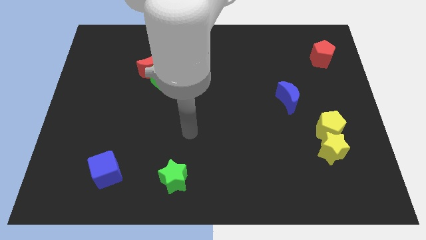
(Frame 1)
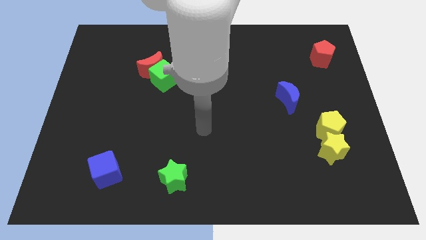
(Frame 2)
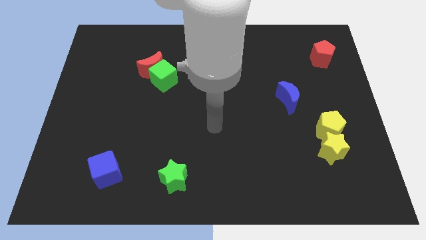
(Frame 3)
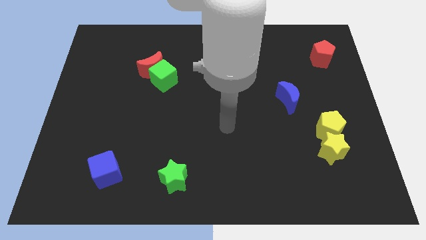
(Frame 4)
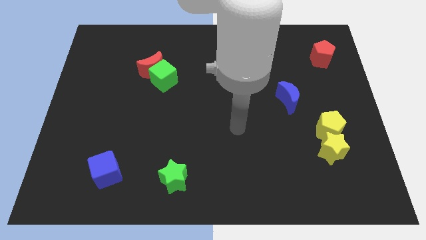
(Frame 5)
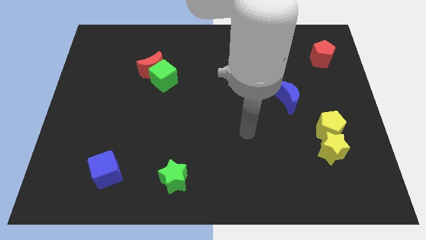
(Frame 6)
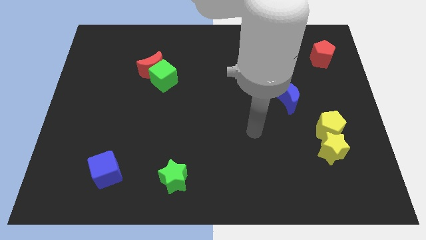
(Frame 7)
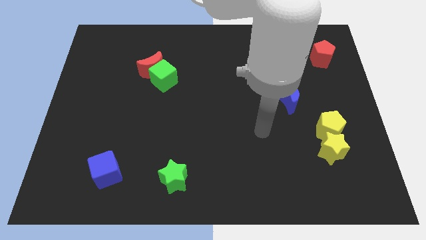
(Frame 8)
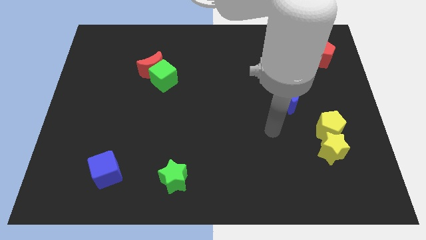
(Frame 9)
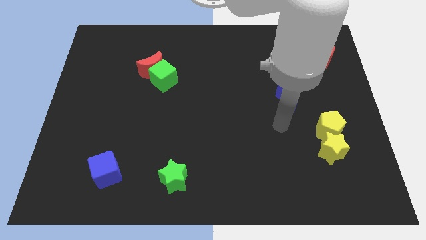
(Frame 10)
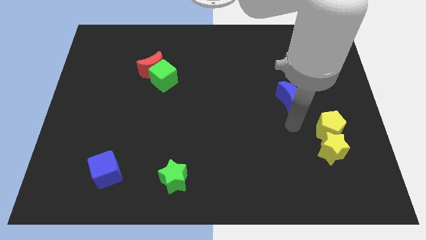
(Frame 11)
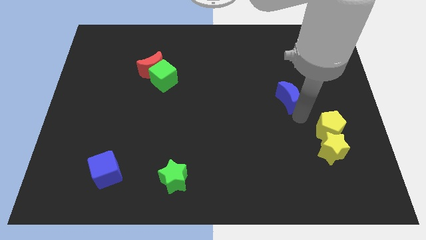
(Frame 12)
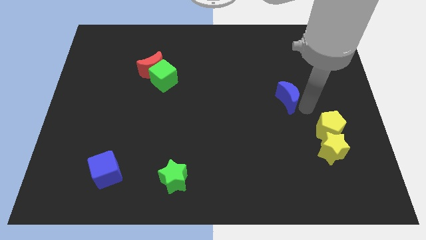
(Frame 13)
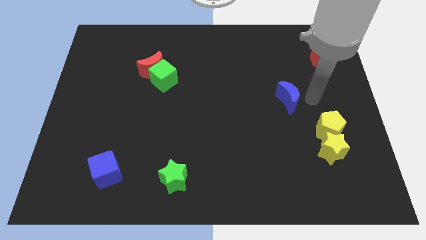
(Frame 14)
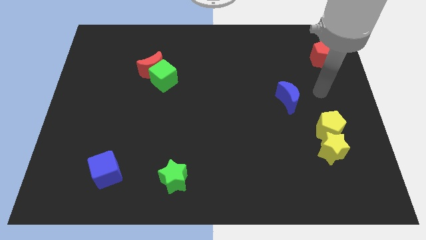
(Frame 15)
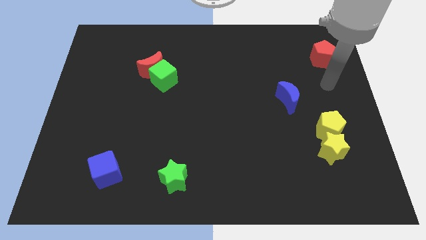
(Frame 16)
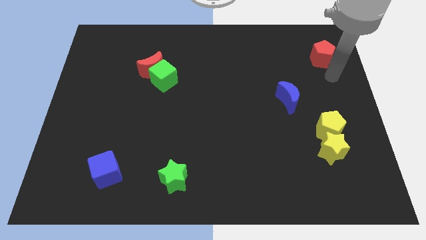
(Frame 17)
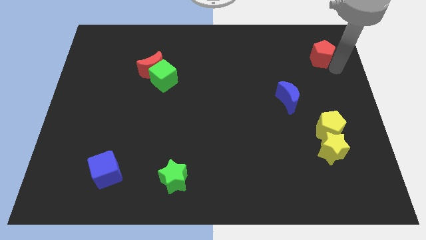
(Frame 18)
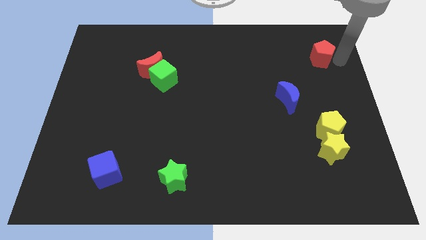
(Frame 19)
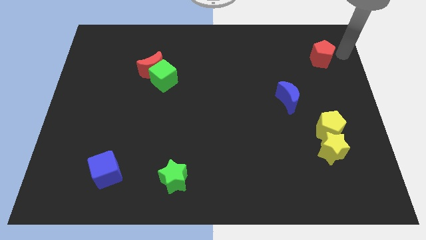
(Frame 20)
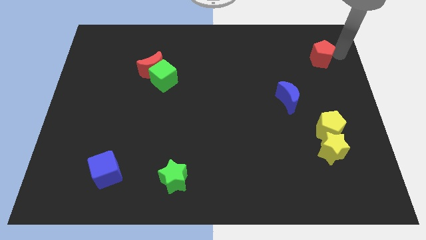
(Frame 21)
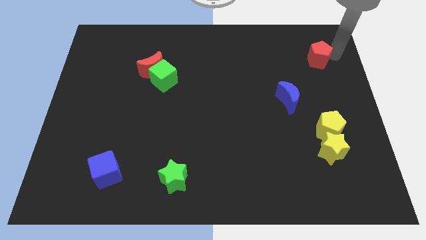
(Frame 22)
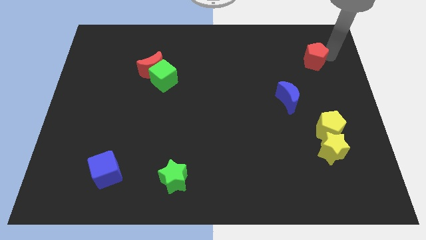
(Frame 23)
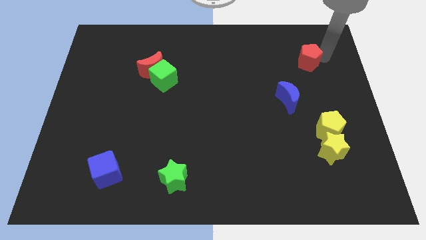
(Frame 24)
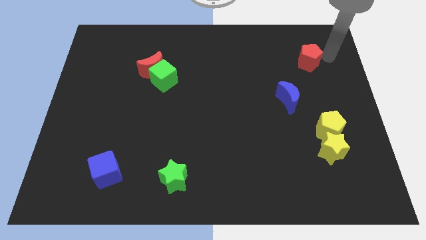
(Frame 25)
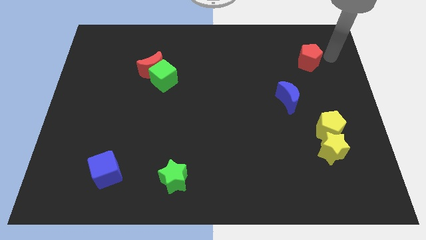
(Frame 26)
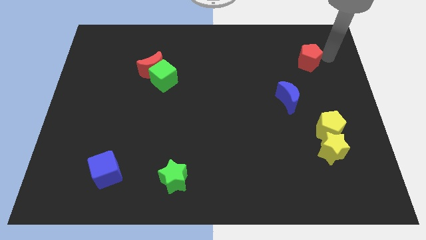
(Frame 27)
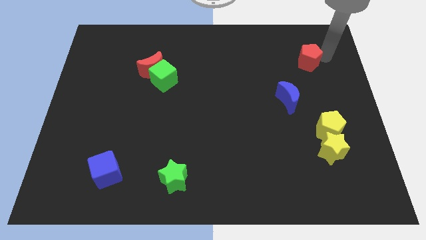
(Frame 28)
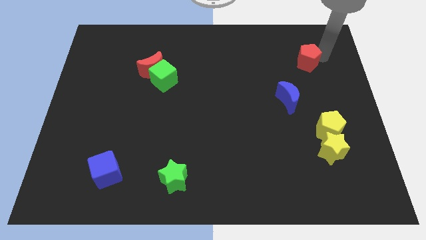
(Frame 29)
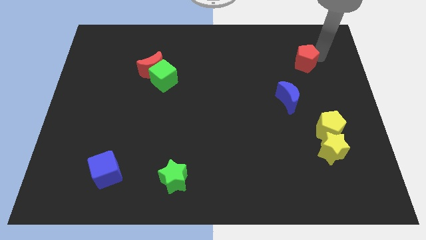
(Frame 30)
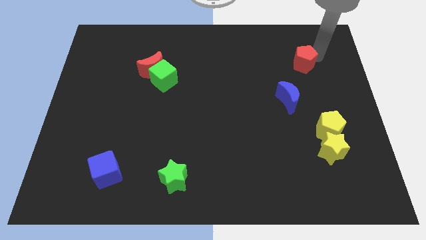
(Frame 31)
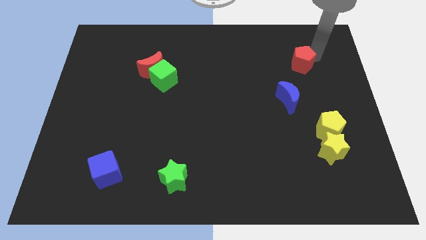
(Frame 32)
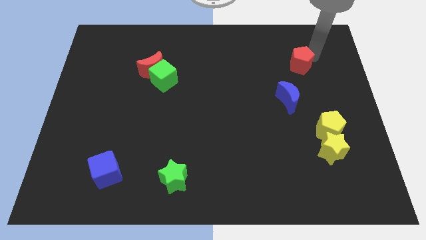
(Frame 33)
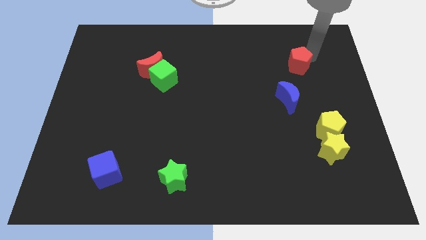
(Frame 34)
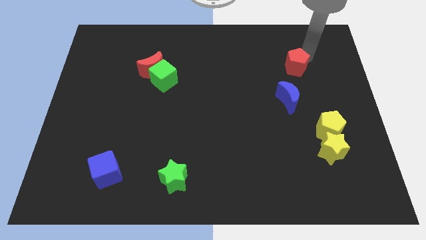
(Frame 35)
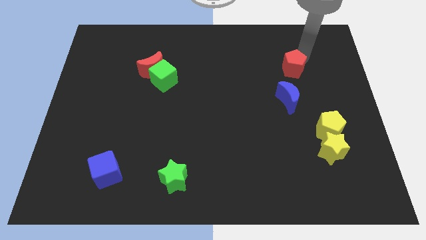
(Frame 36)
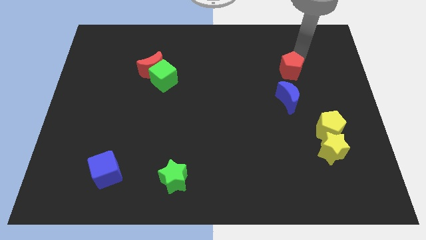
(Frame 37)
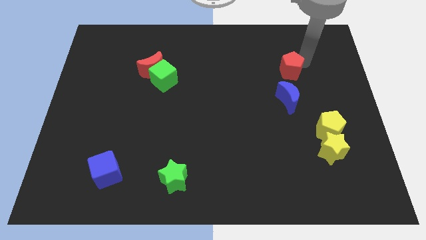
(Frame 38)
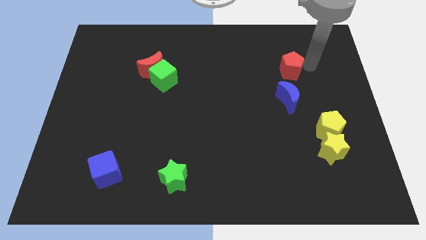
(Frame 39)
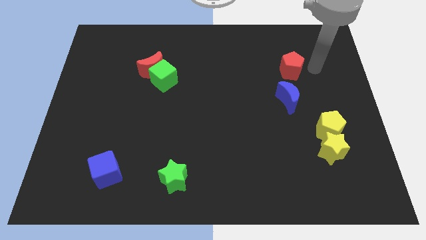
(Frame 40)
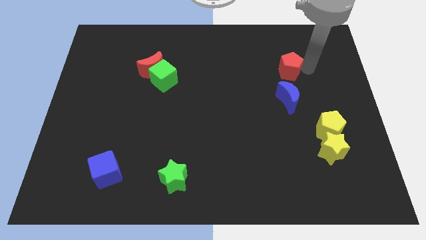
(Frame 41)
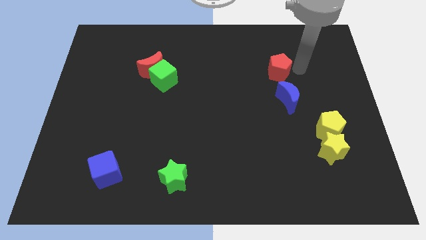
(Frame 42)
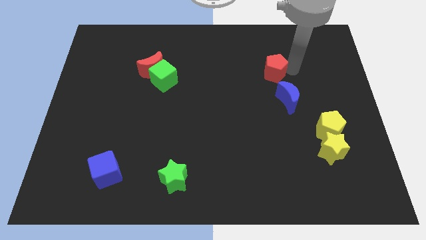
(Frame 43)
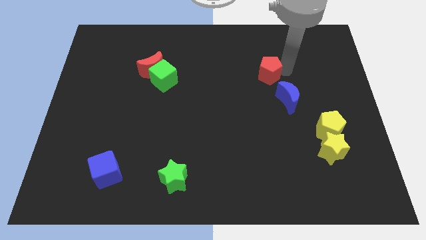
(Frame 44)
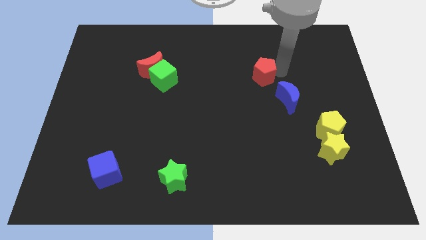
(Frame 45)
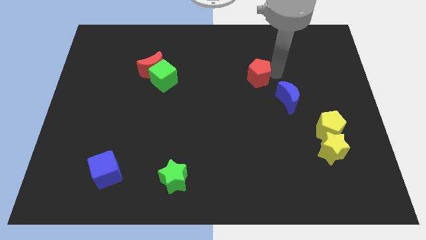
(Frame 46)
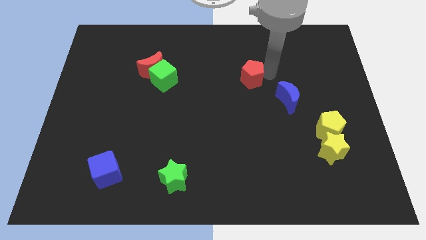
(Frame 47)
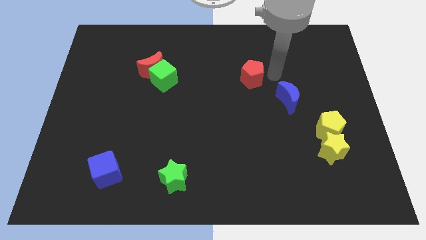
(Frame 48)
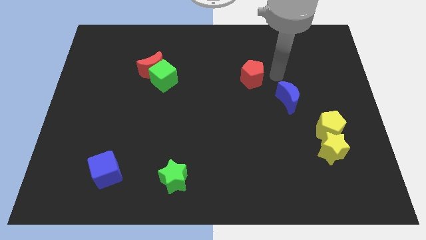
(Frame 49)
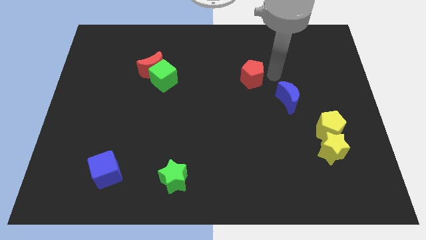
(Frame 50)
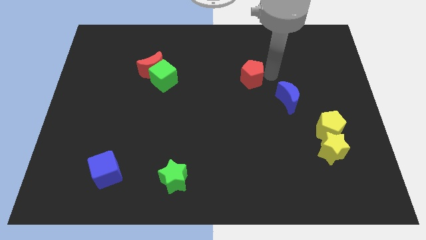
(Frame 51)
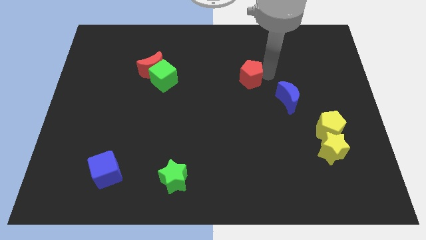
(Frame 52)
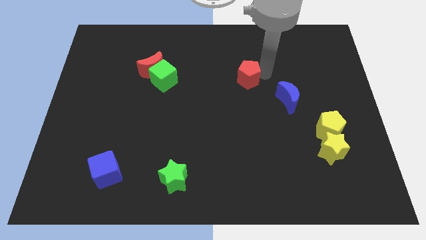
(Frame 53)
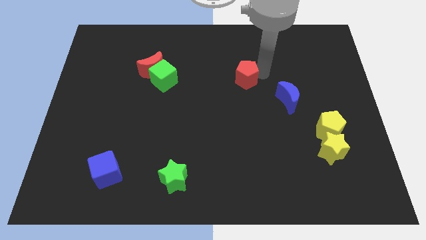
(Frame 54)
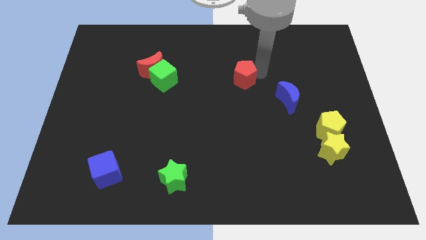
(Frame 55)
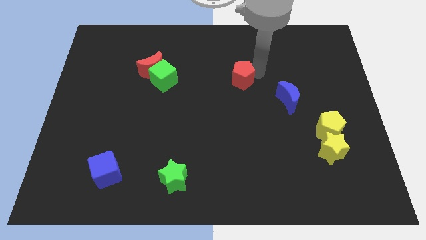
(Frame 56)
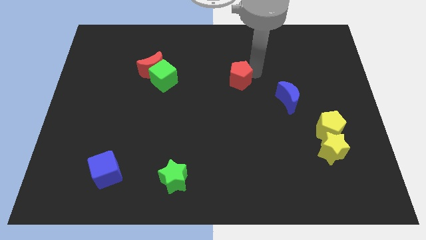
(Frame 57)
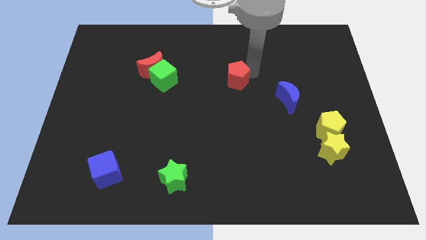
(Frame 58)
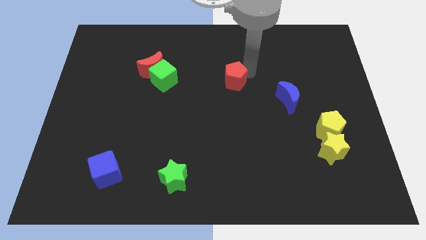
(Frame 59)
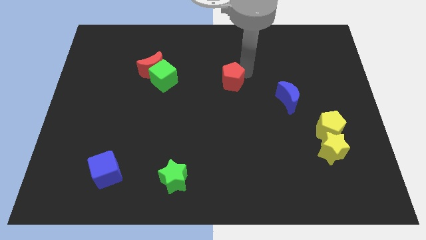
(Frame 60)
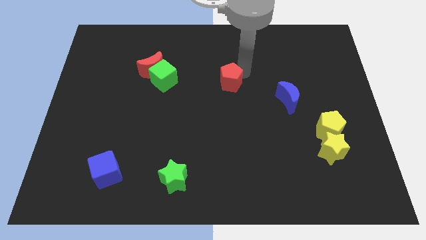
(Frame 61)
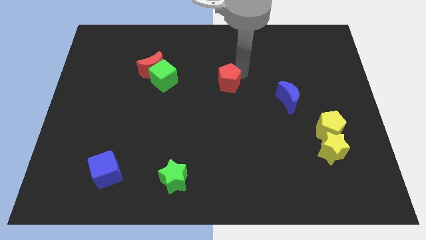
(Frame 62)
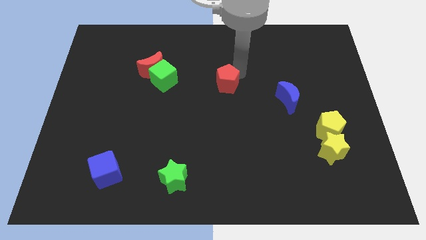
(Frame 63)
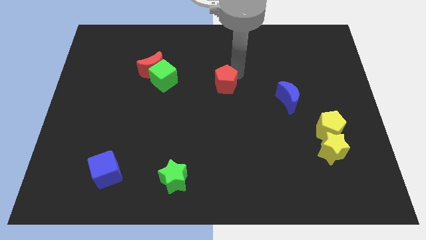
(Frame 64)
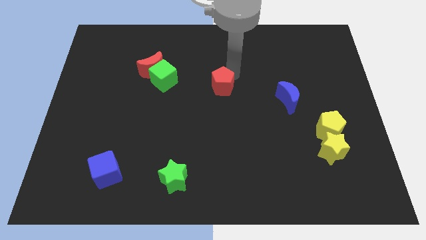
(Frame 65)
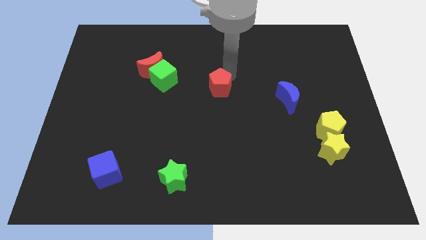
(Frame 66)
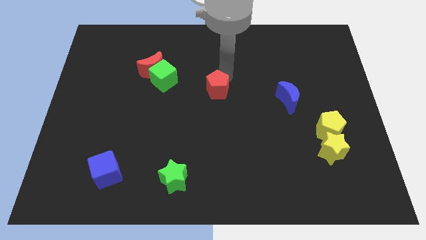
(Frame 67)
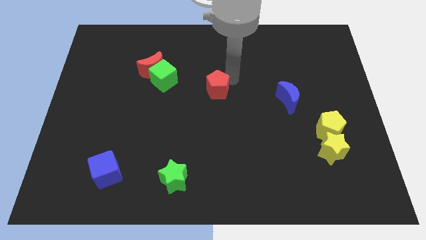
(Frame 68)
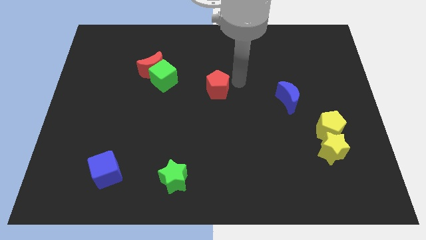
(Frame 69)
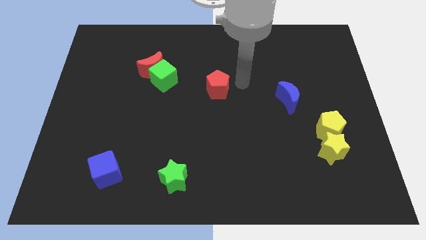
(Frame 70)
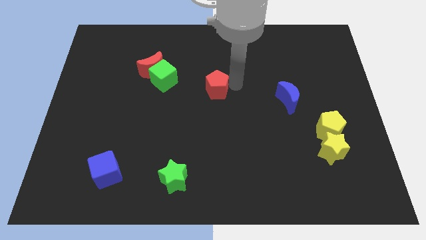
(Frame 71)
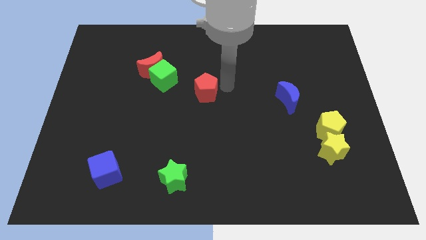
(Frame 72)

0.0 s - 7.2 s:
move the red pentagon diagonally down and to the right of the green cube
